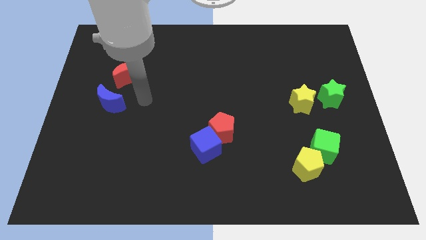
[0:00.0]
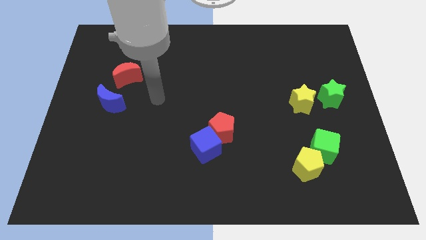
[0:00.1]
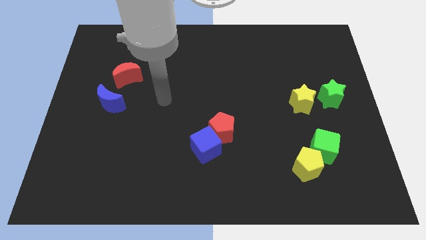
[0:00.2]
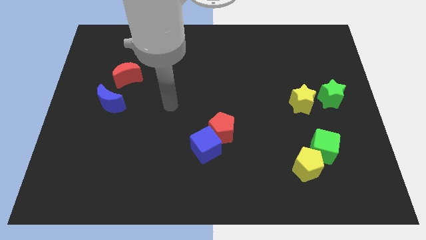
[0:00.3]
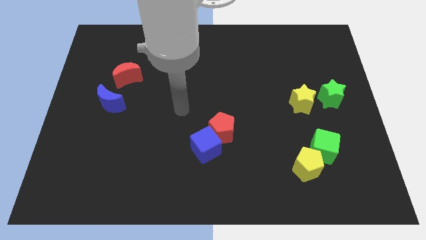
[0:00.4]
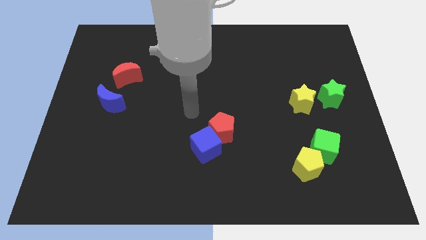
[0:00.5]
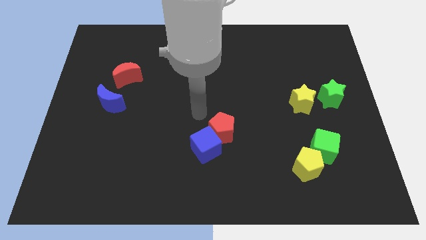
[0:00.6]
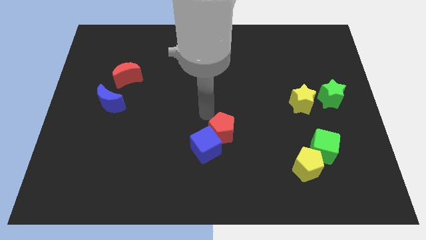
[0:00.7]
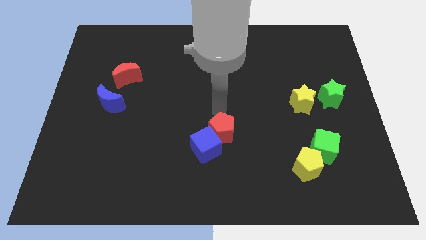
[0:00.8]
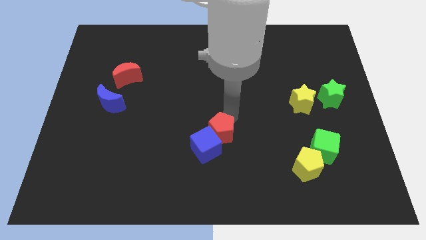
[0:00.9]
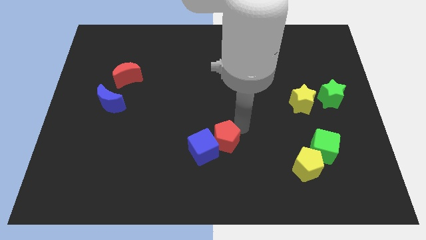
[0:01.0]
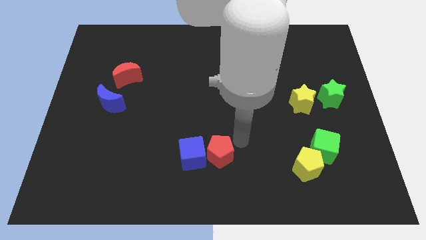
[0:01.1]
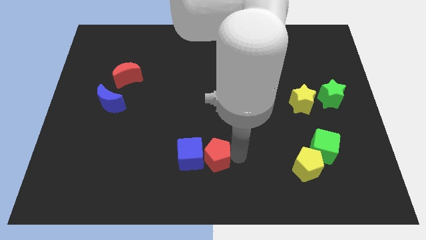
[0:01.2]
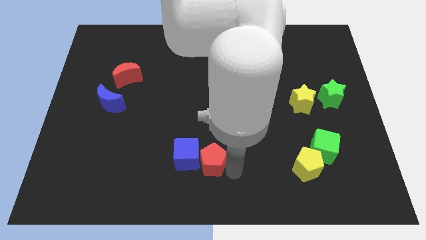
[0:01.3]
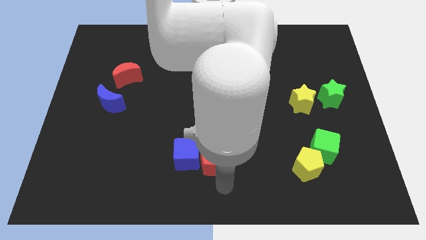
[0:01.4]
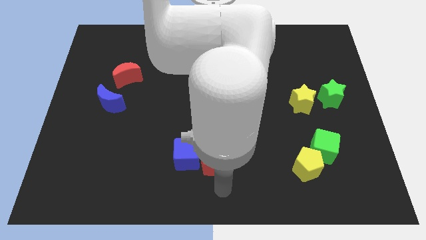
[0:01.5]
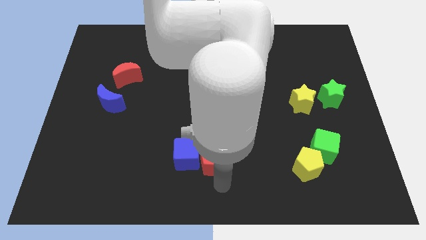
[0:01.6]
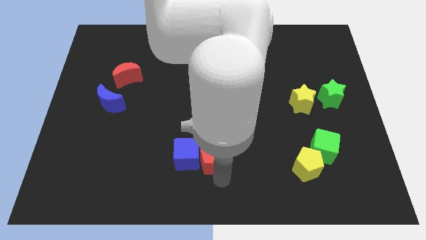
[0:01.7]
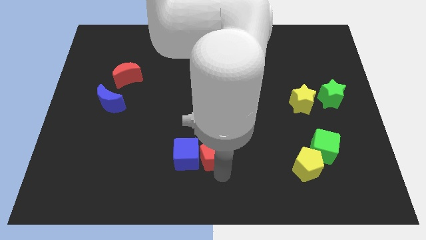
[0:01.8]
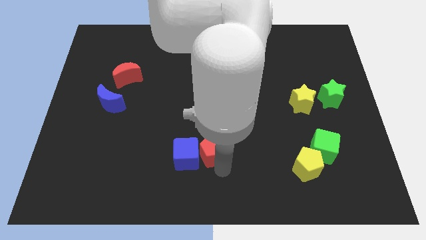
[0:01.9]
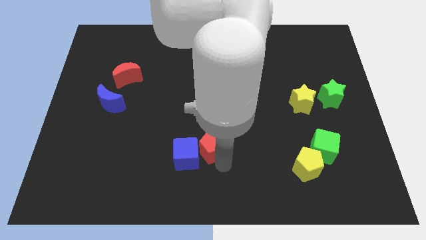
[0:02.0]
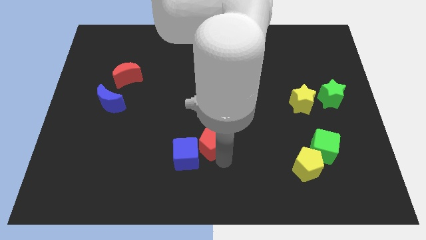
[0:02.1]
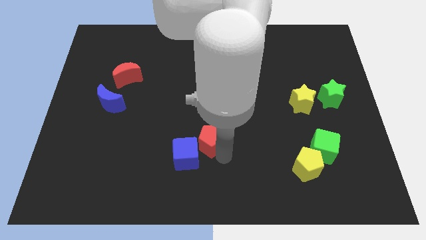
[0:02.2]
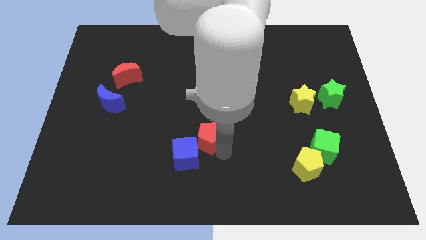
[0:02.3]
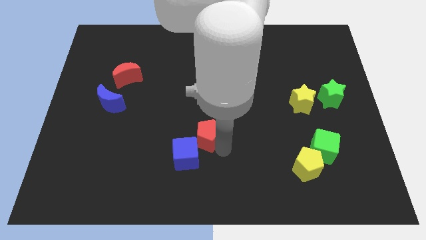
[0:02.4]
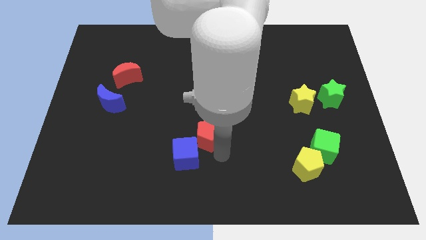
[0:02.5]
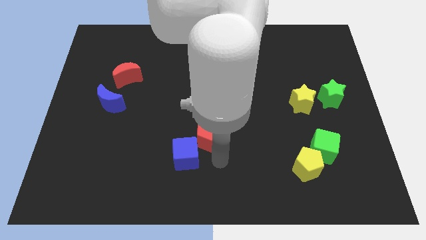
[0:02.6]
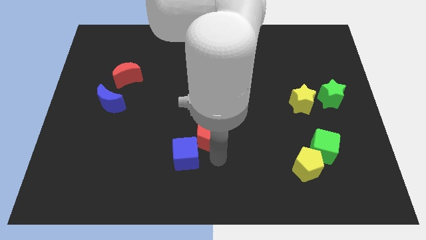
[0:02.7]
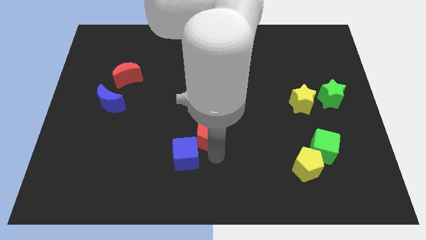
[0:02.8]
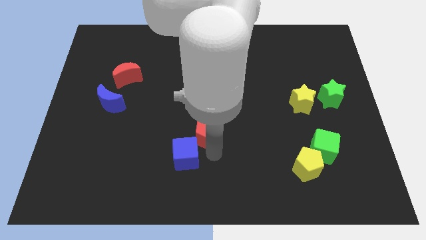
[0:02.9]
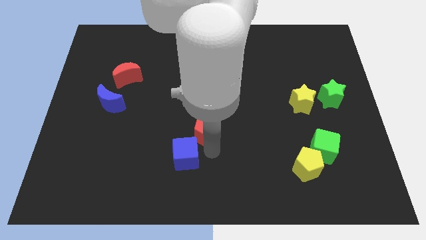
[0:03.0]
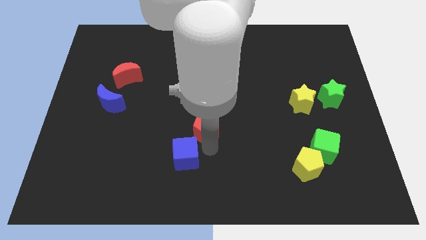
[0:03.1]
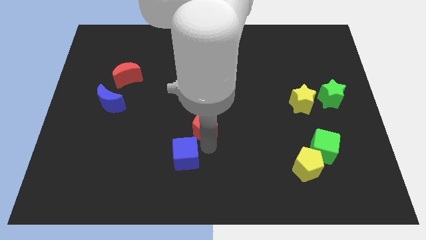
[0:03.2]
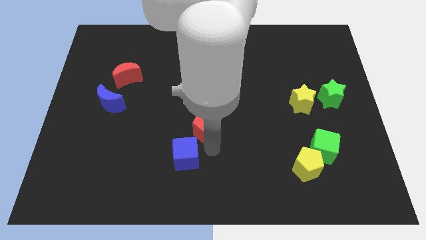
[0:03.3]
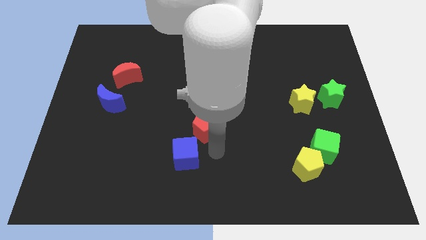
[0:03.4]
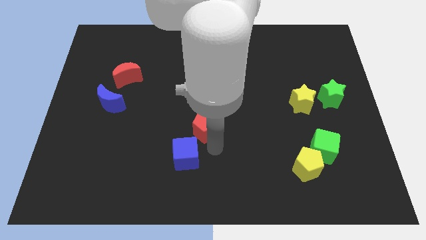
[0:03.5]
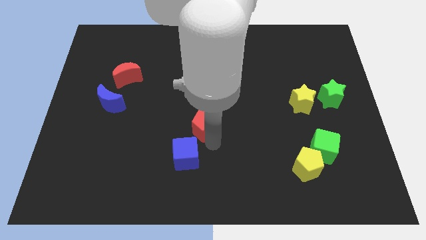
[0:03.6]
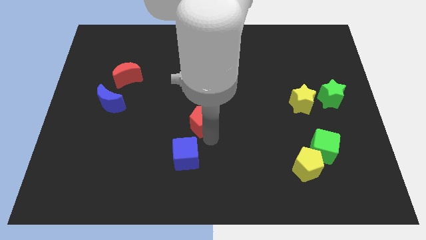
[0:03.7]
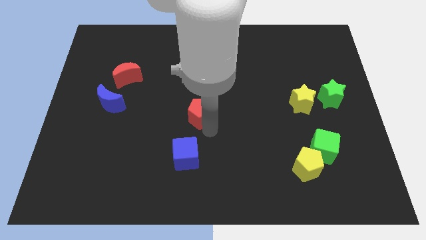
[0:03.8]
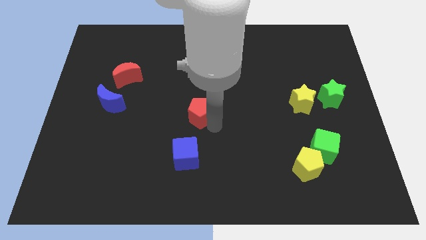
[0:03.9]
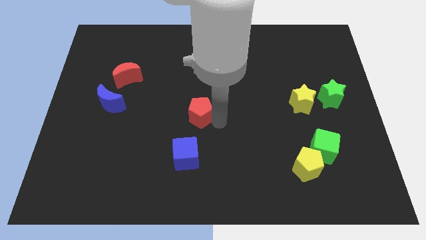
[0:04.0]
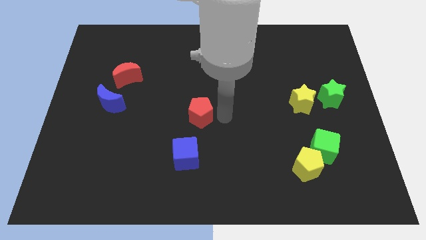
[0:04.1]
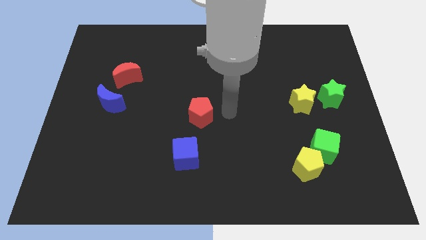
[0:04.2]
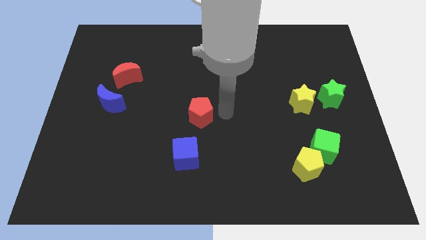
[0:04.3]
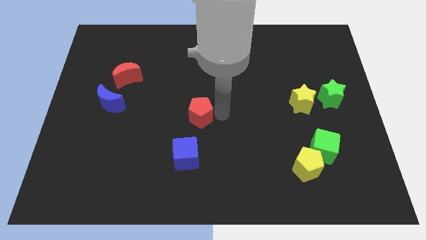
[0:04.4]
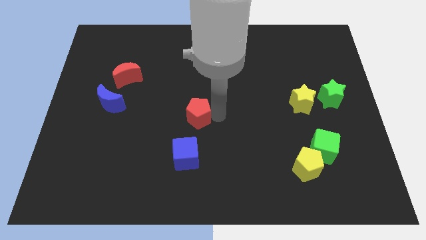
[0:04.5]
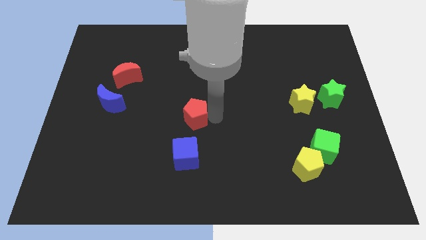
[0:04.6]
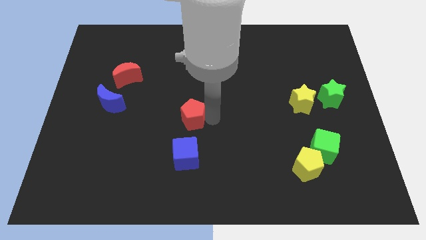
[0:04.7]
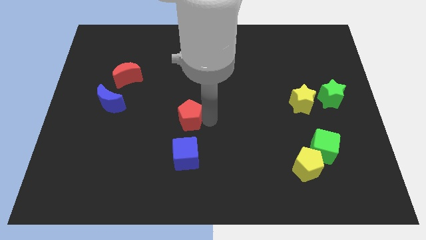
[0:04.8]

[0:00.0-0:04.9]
move the red pentagon slightly left

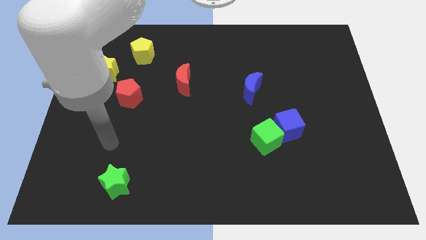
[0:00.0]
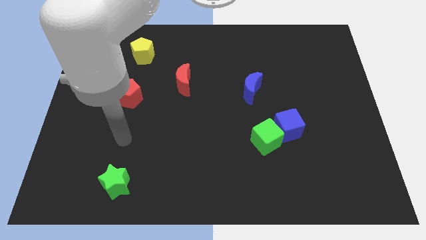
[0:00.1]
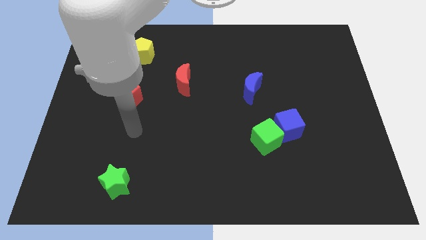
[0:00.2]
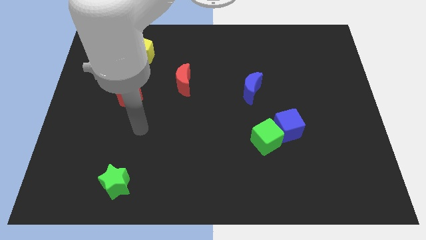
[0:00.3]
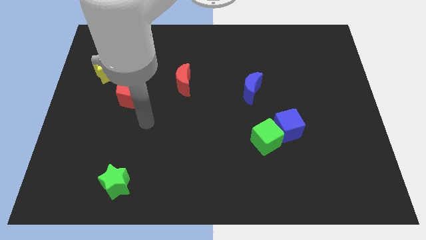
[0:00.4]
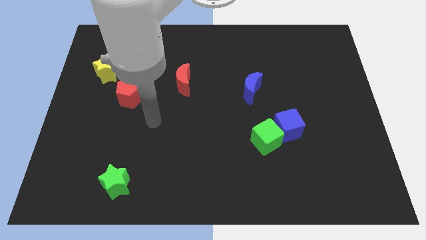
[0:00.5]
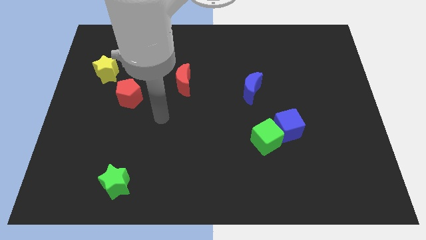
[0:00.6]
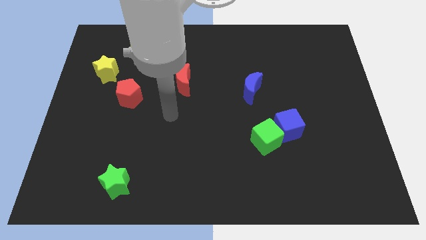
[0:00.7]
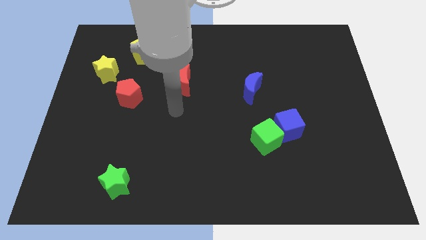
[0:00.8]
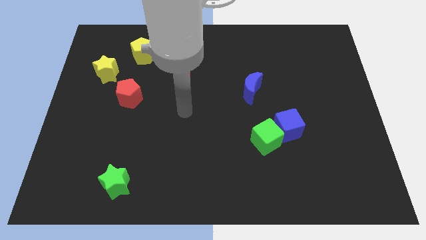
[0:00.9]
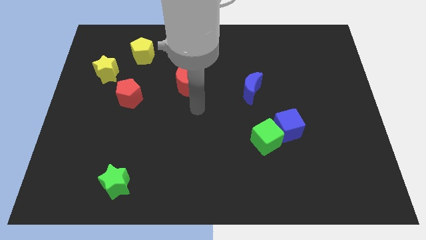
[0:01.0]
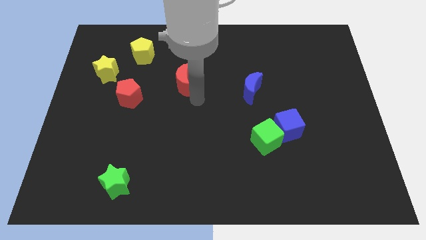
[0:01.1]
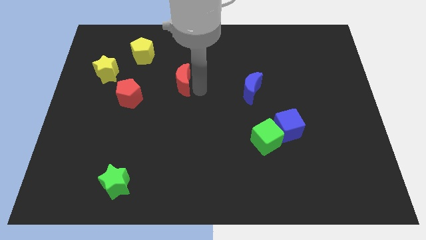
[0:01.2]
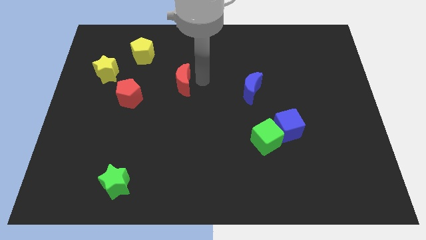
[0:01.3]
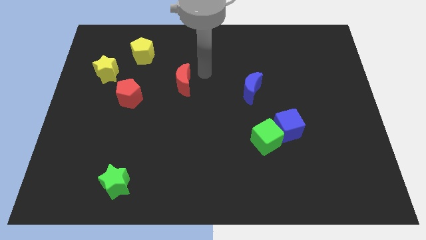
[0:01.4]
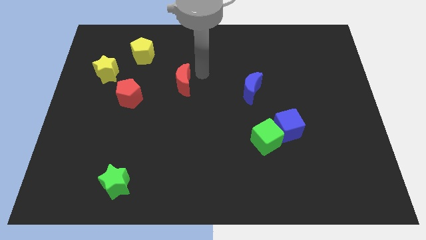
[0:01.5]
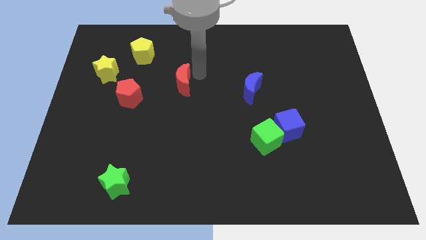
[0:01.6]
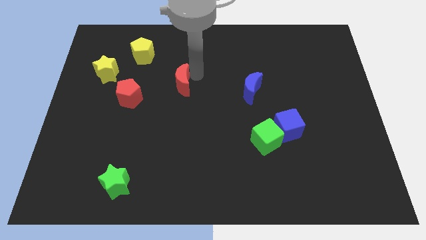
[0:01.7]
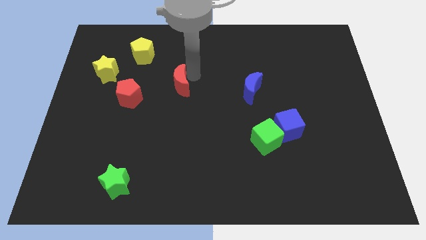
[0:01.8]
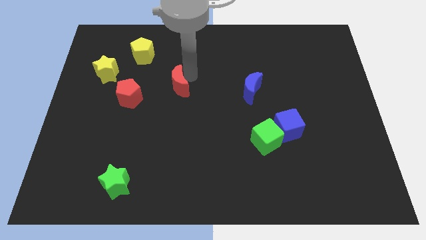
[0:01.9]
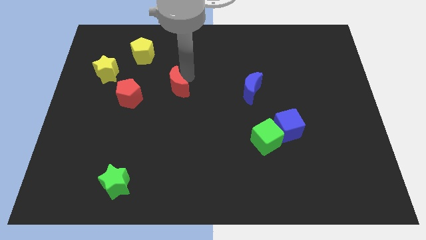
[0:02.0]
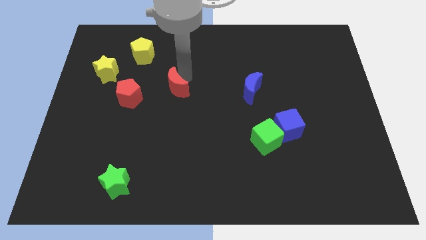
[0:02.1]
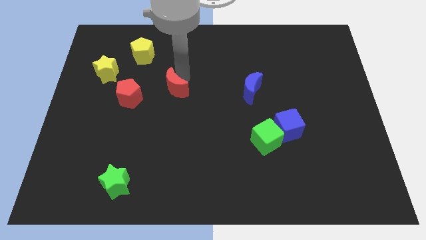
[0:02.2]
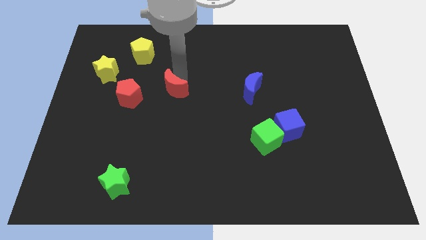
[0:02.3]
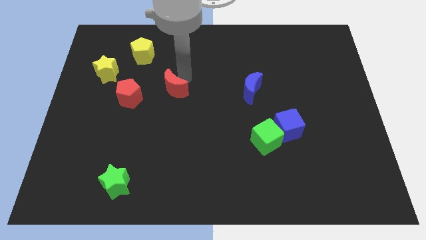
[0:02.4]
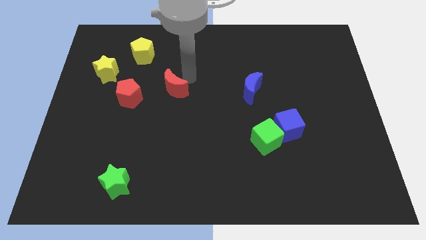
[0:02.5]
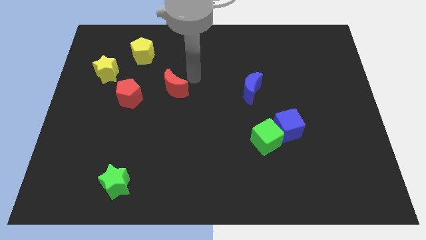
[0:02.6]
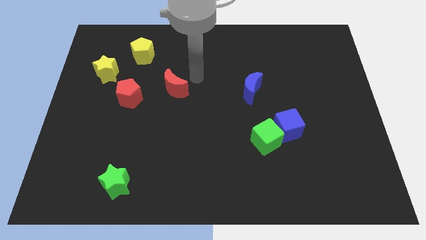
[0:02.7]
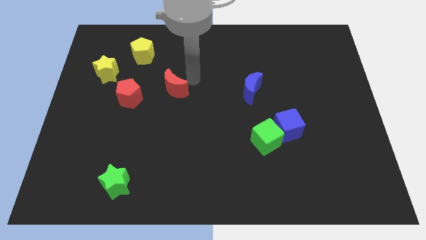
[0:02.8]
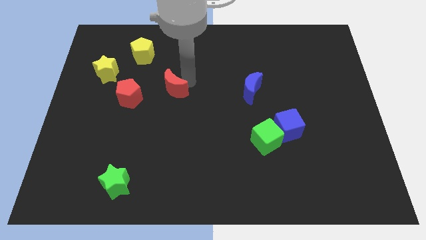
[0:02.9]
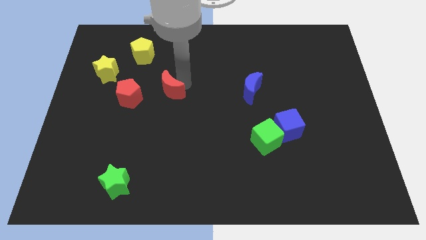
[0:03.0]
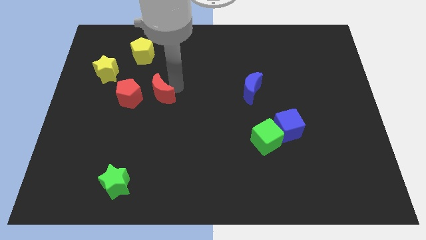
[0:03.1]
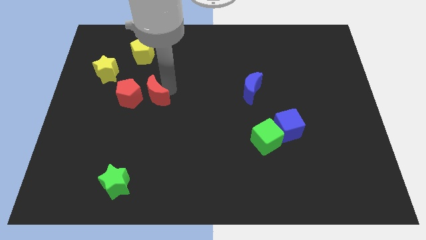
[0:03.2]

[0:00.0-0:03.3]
slightly slide the red moon down and then to the left
